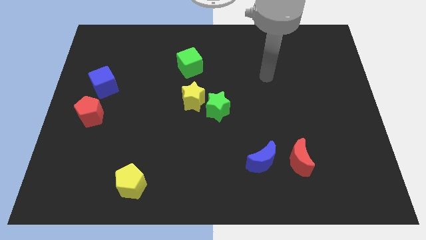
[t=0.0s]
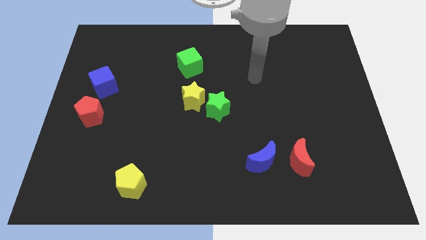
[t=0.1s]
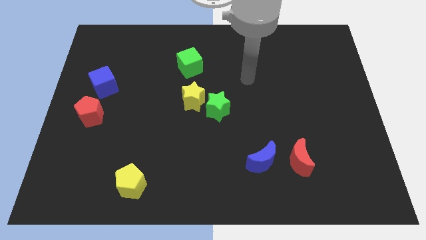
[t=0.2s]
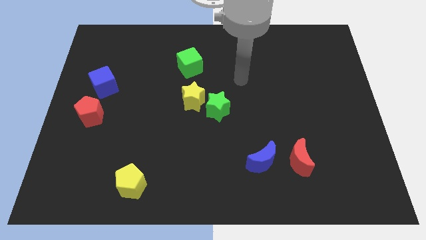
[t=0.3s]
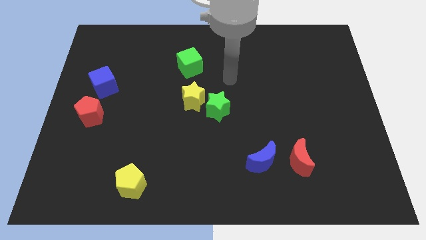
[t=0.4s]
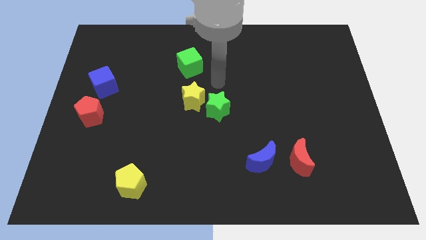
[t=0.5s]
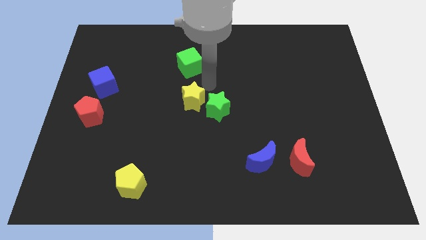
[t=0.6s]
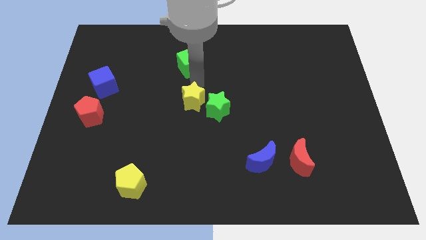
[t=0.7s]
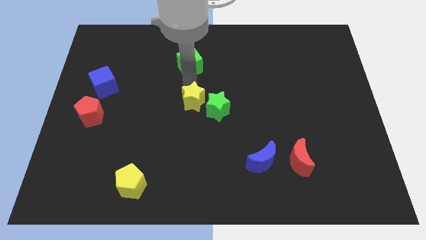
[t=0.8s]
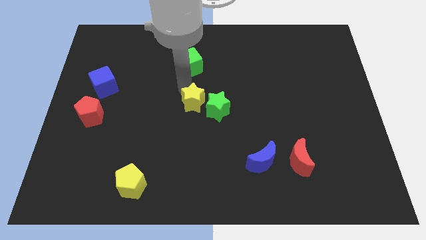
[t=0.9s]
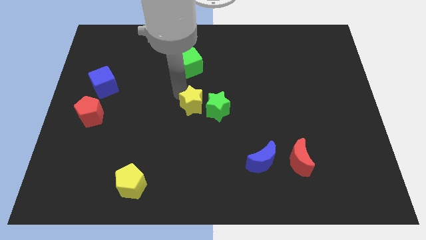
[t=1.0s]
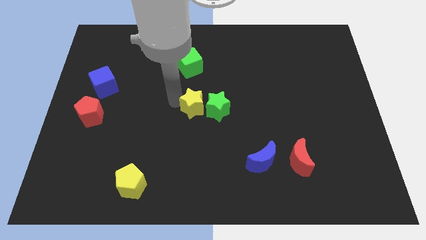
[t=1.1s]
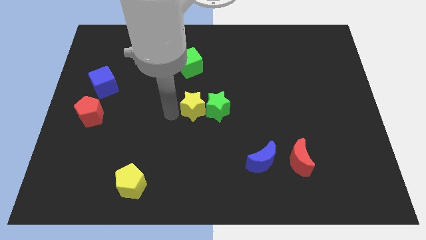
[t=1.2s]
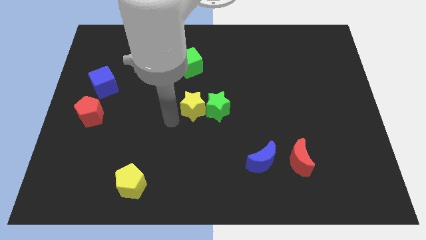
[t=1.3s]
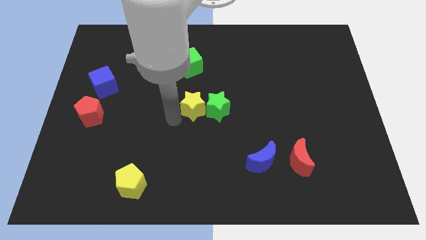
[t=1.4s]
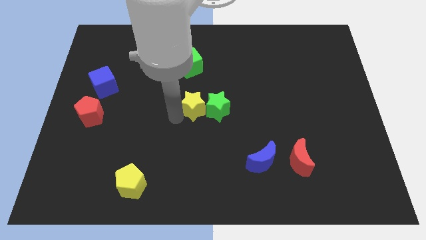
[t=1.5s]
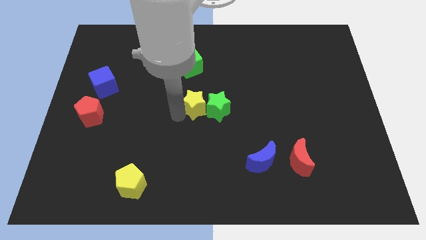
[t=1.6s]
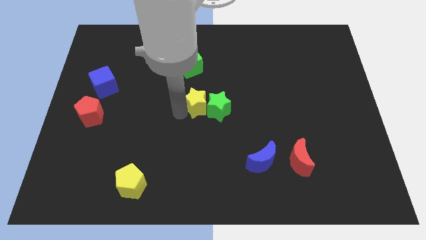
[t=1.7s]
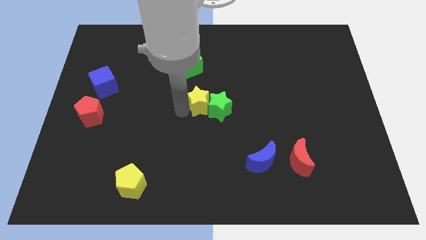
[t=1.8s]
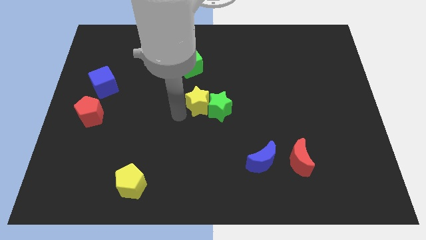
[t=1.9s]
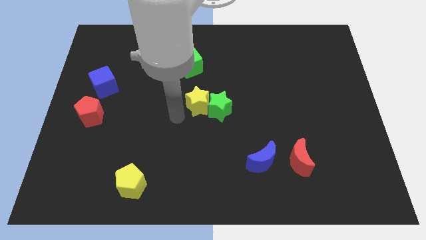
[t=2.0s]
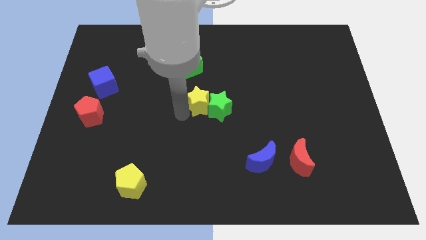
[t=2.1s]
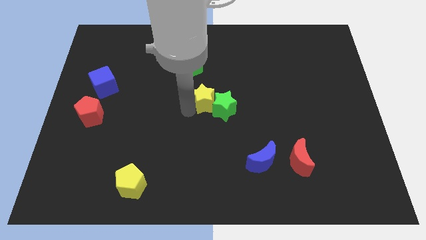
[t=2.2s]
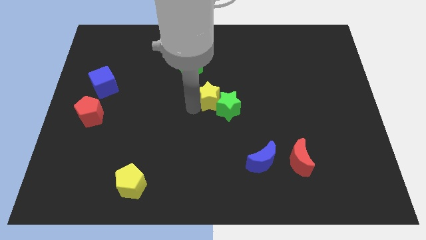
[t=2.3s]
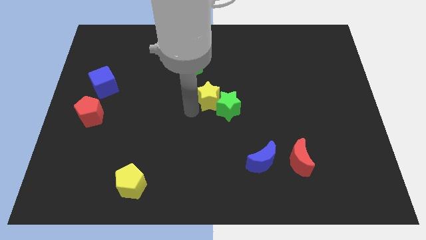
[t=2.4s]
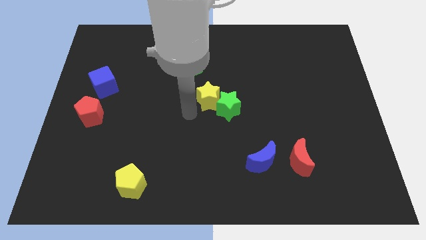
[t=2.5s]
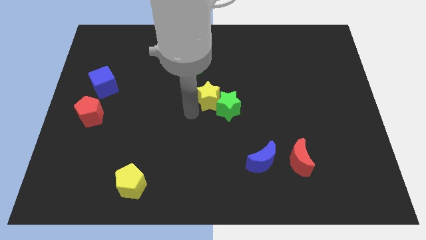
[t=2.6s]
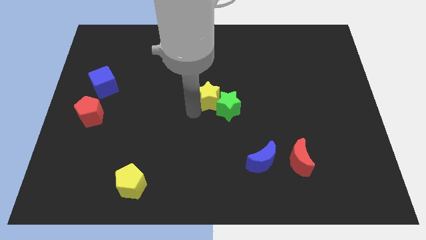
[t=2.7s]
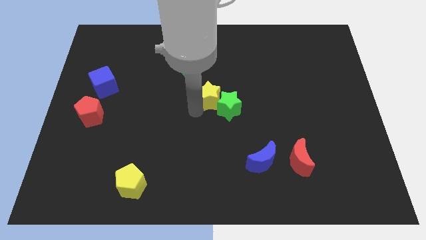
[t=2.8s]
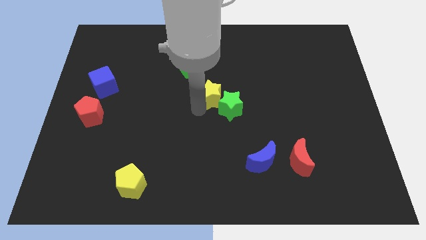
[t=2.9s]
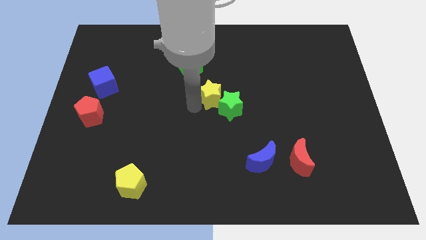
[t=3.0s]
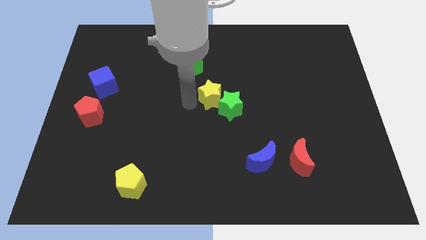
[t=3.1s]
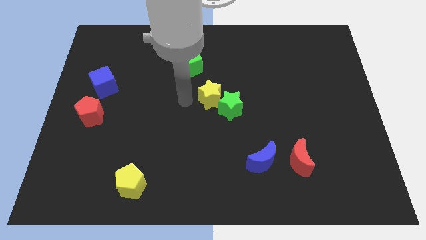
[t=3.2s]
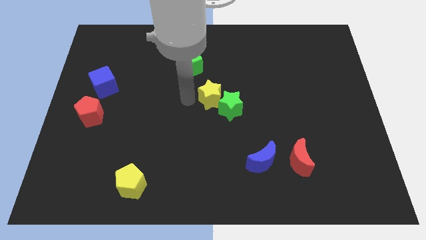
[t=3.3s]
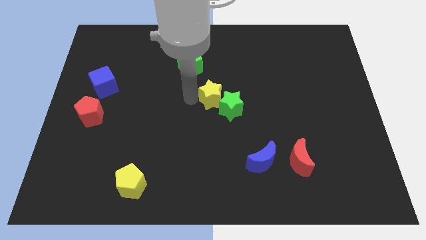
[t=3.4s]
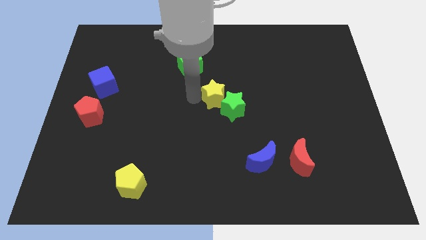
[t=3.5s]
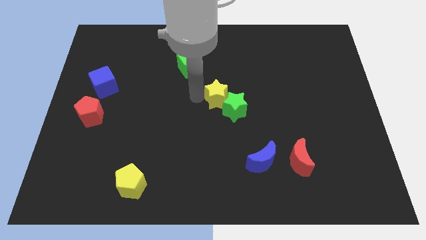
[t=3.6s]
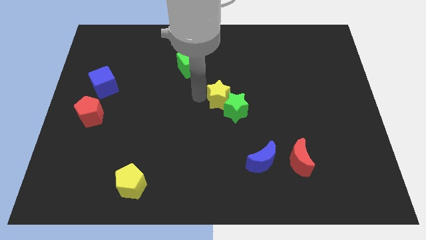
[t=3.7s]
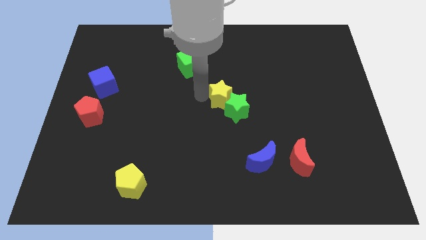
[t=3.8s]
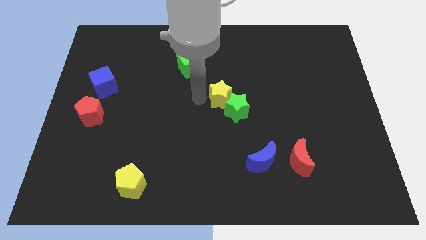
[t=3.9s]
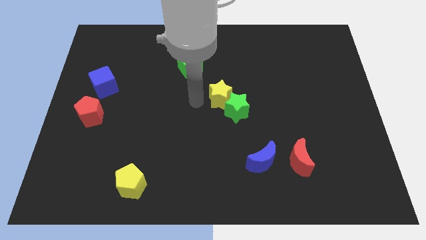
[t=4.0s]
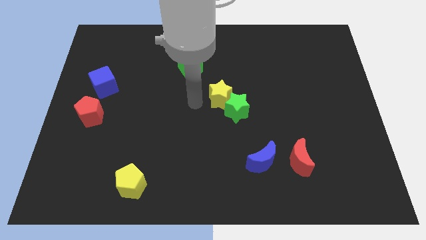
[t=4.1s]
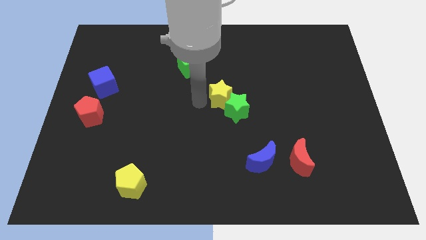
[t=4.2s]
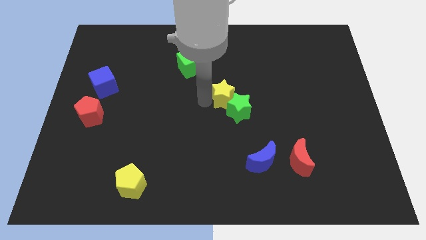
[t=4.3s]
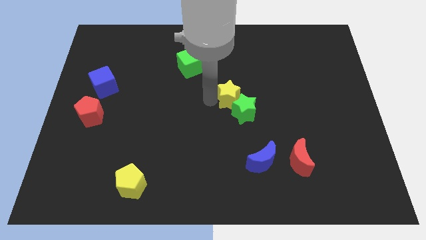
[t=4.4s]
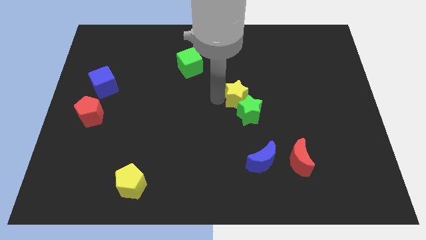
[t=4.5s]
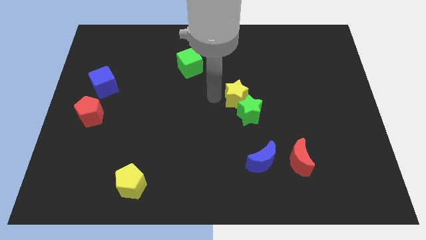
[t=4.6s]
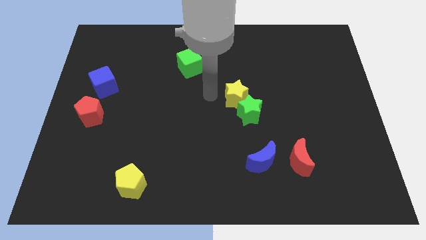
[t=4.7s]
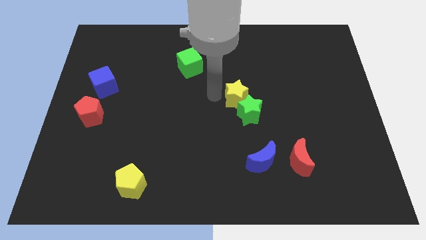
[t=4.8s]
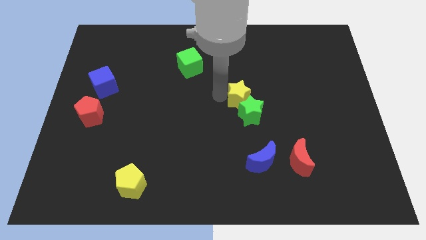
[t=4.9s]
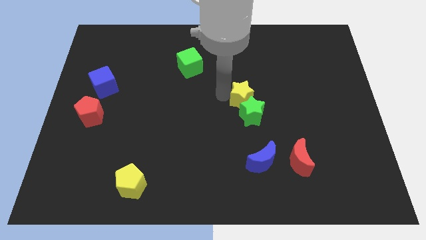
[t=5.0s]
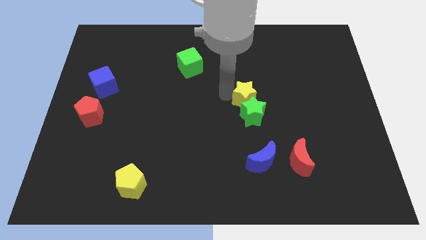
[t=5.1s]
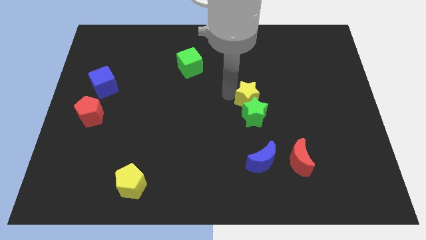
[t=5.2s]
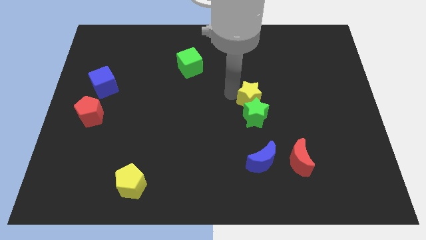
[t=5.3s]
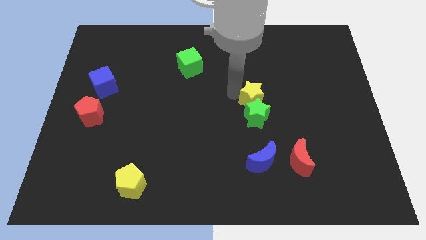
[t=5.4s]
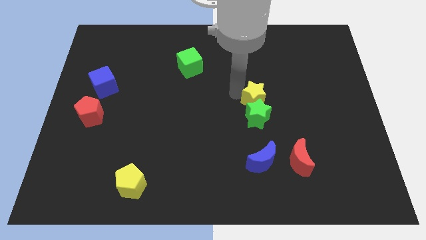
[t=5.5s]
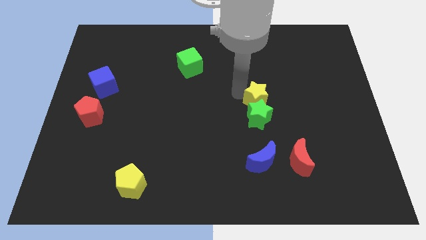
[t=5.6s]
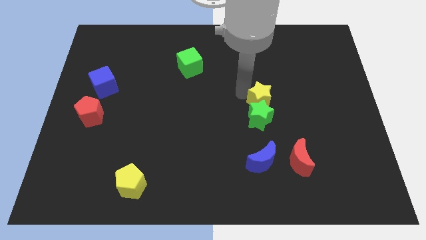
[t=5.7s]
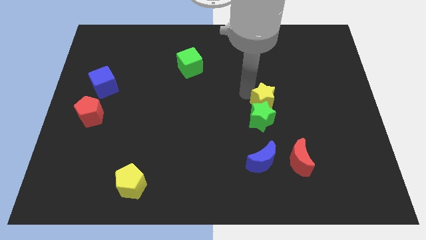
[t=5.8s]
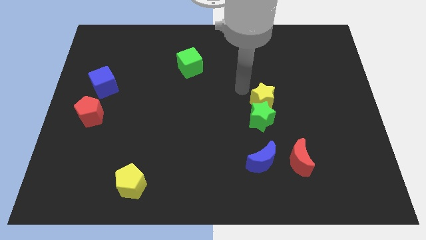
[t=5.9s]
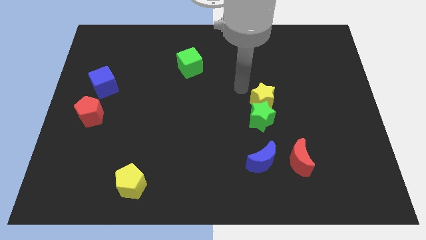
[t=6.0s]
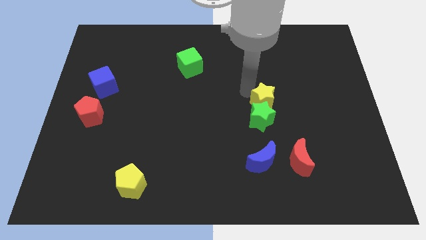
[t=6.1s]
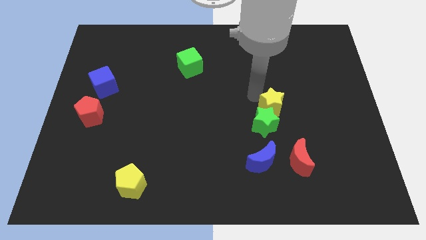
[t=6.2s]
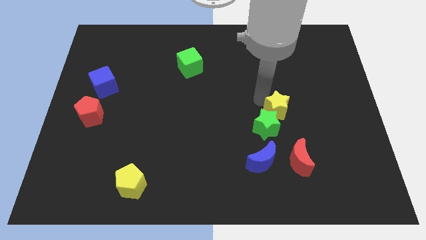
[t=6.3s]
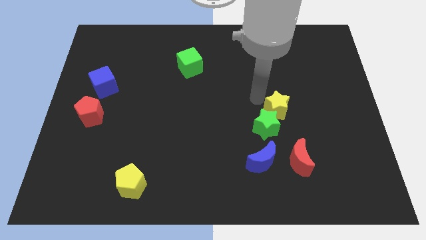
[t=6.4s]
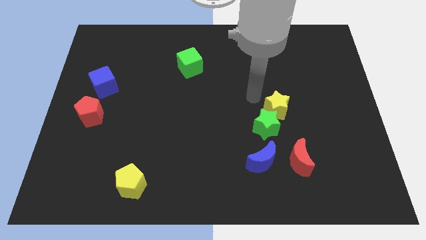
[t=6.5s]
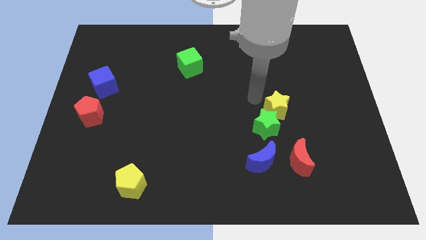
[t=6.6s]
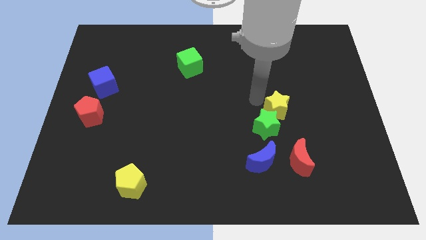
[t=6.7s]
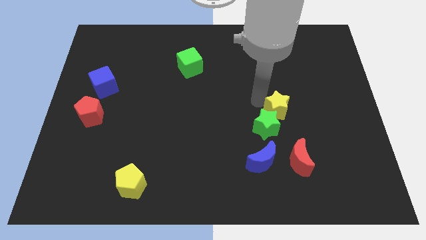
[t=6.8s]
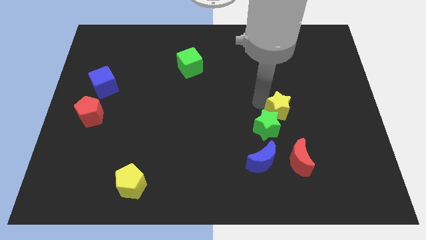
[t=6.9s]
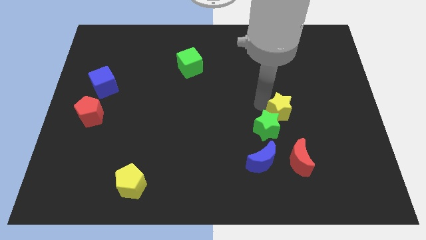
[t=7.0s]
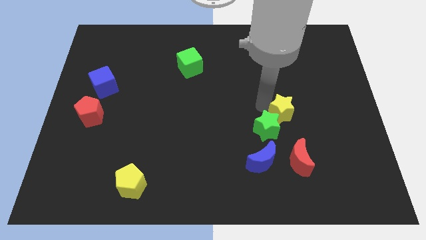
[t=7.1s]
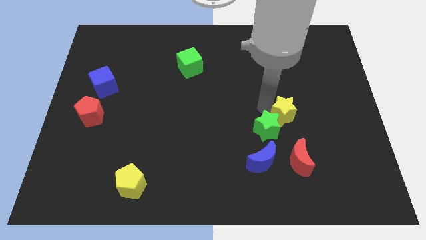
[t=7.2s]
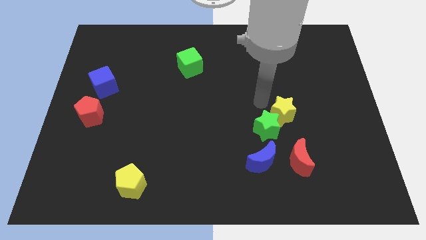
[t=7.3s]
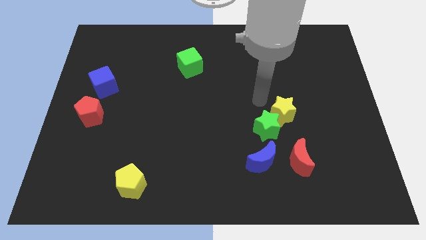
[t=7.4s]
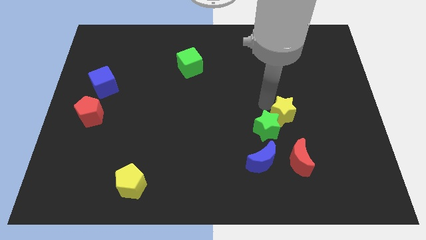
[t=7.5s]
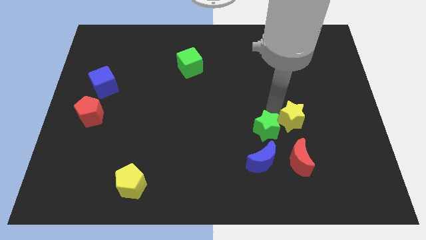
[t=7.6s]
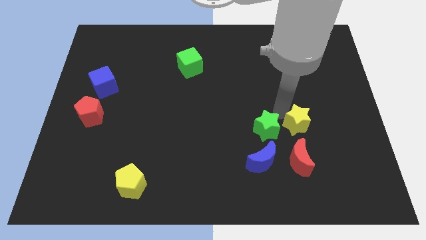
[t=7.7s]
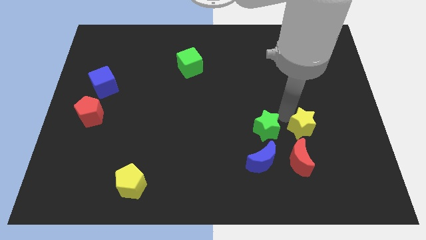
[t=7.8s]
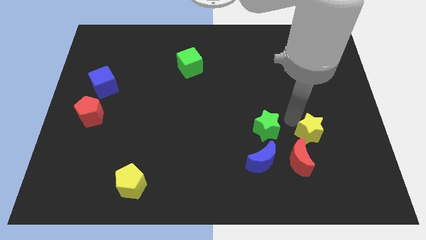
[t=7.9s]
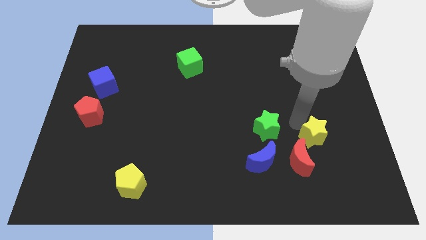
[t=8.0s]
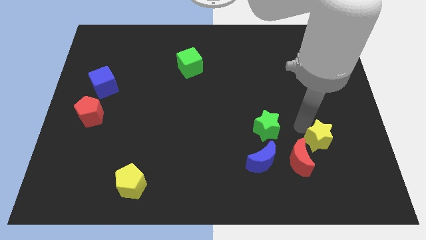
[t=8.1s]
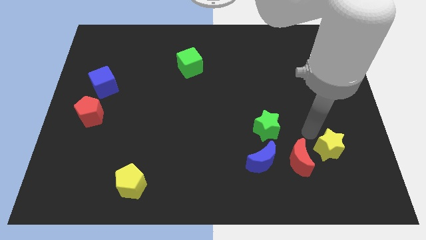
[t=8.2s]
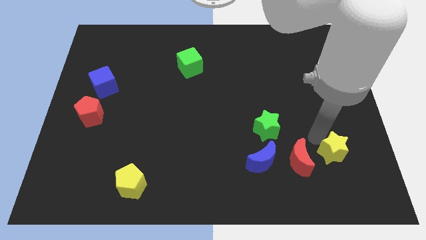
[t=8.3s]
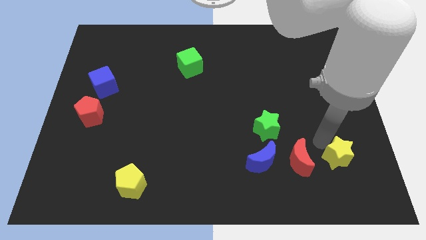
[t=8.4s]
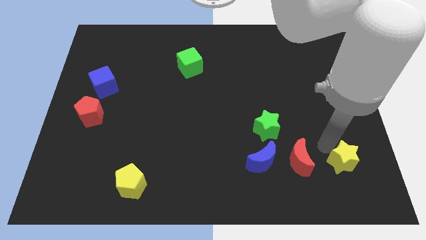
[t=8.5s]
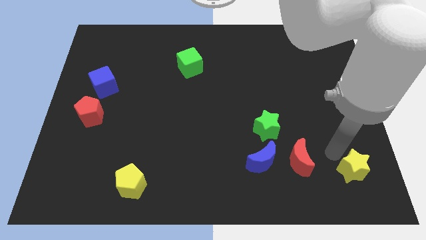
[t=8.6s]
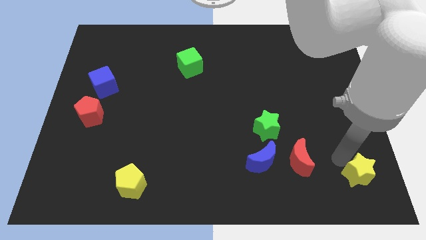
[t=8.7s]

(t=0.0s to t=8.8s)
move the yellow star to the bottom right corner
